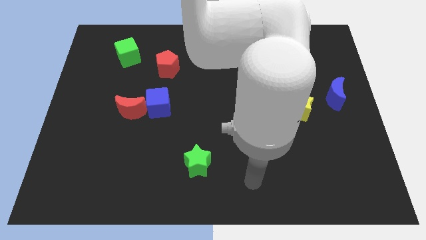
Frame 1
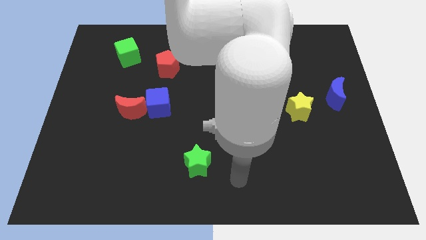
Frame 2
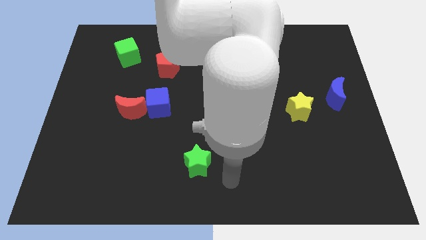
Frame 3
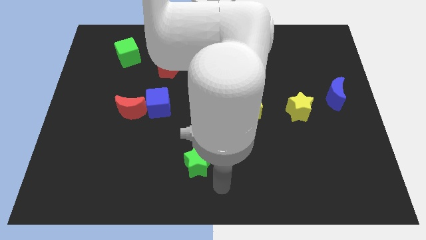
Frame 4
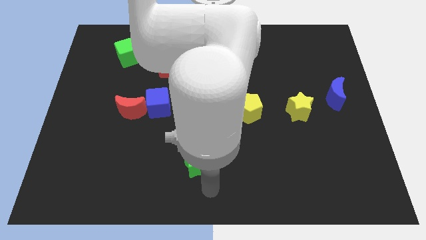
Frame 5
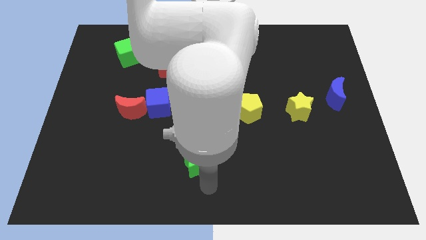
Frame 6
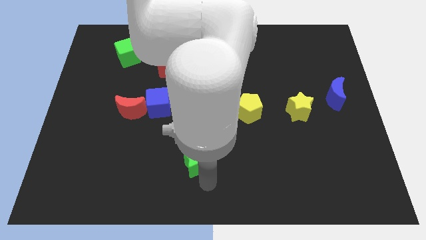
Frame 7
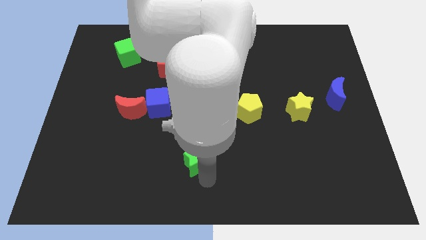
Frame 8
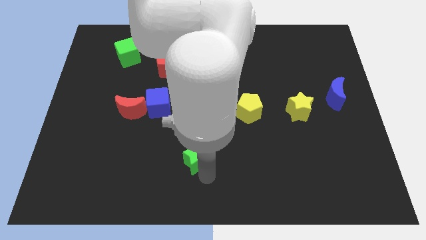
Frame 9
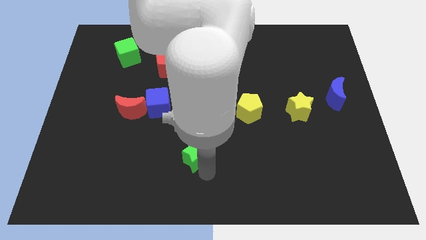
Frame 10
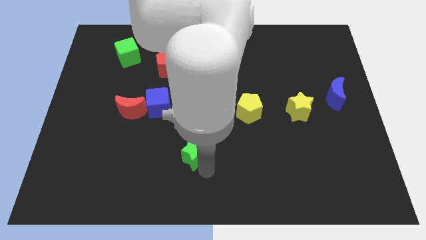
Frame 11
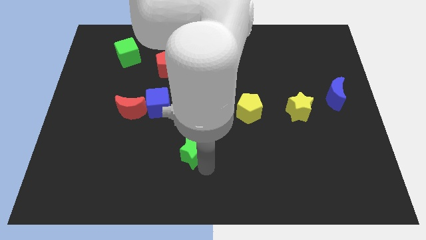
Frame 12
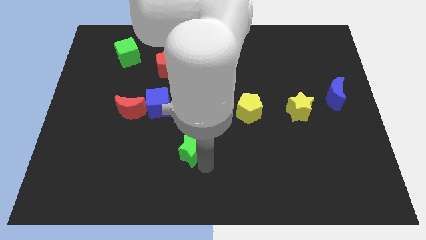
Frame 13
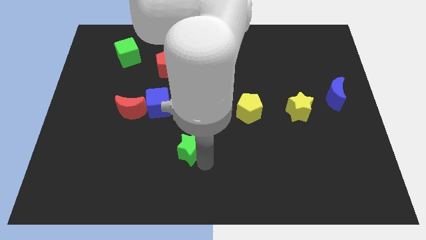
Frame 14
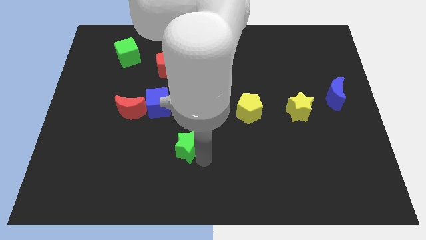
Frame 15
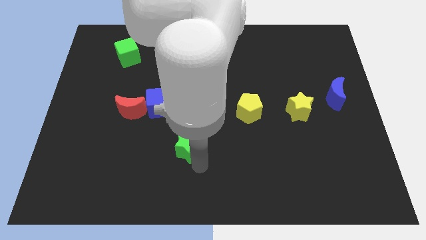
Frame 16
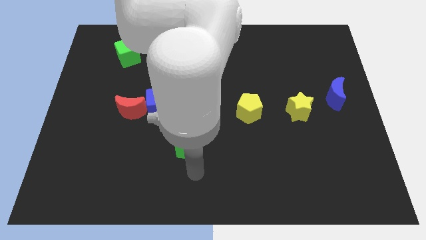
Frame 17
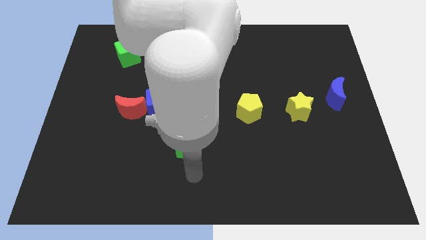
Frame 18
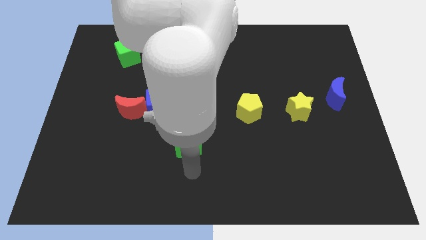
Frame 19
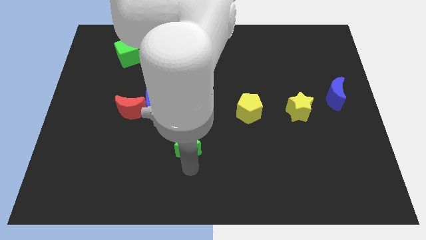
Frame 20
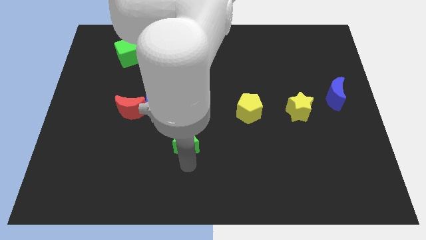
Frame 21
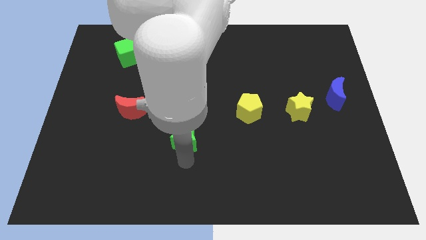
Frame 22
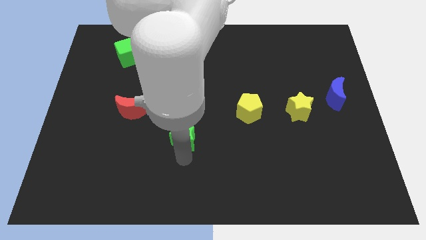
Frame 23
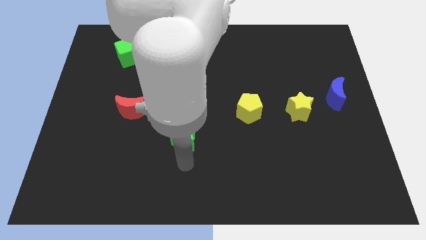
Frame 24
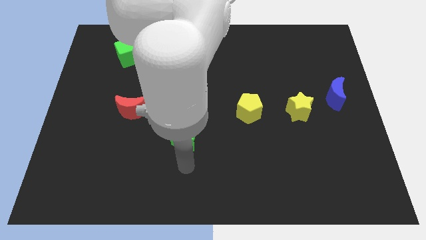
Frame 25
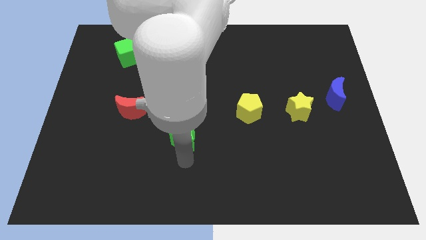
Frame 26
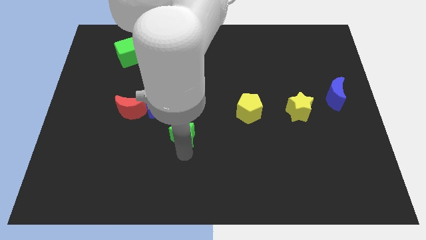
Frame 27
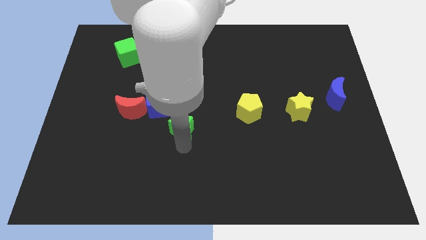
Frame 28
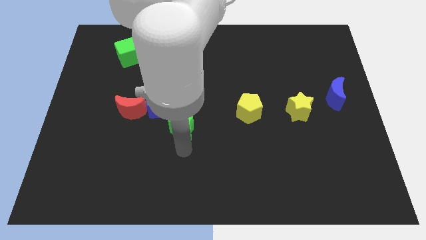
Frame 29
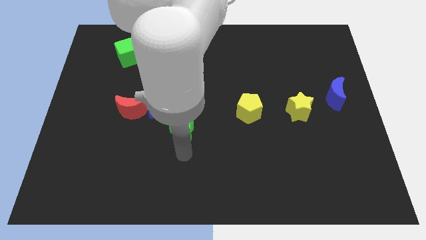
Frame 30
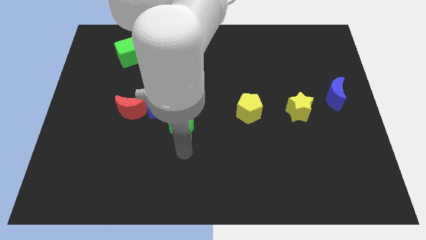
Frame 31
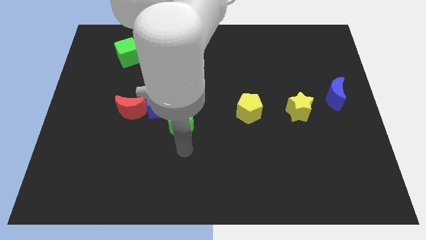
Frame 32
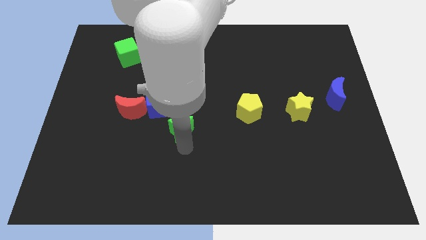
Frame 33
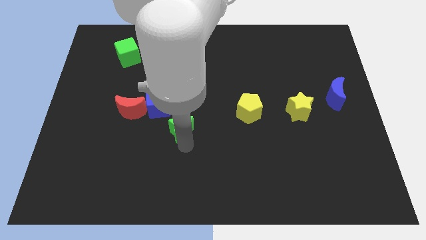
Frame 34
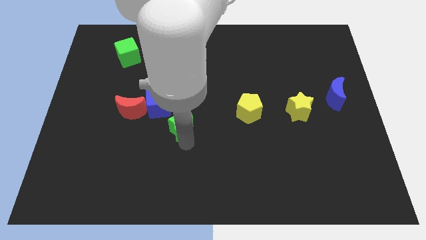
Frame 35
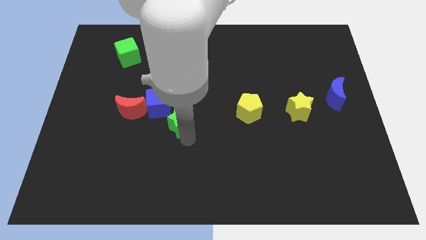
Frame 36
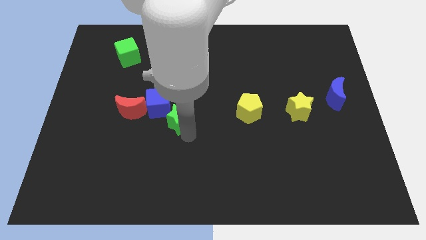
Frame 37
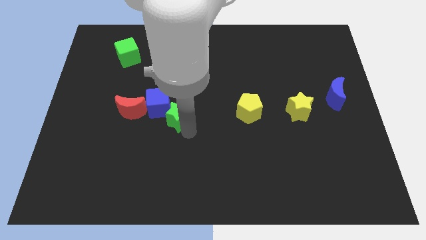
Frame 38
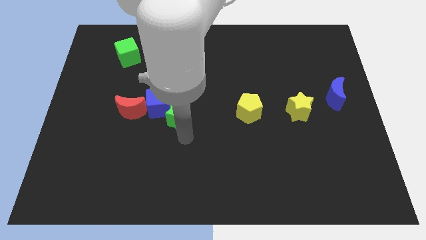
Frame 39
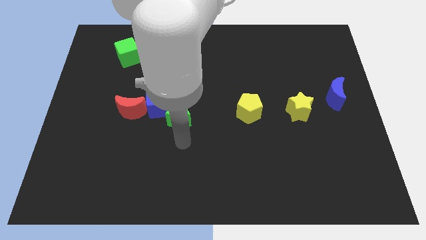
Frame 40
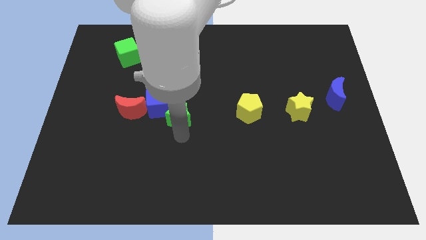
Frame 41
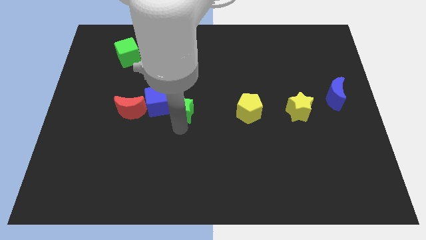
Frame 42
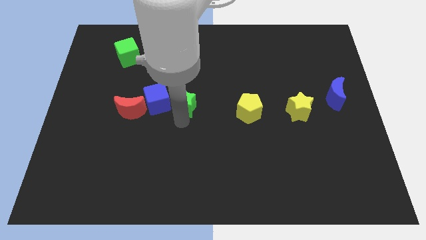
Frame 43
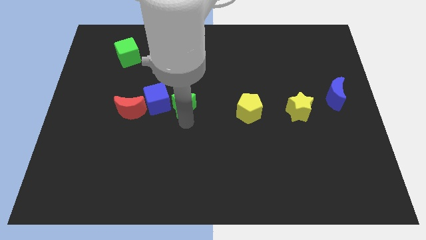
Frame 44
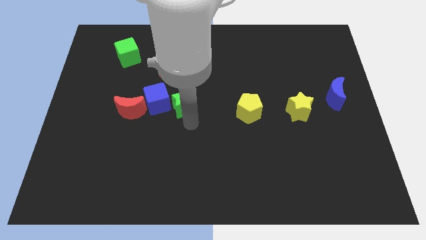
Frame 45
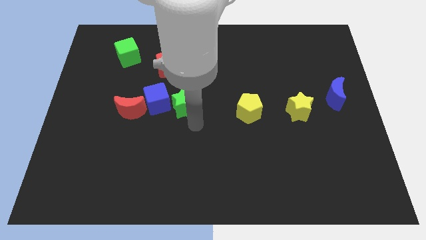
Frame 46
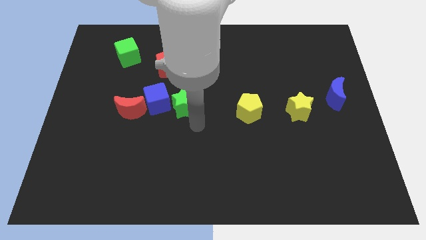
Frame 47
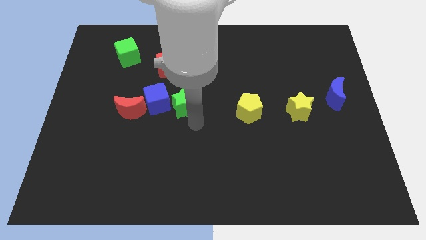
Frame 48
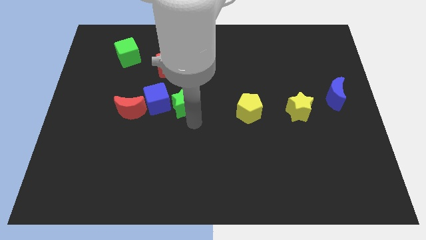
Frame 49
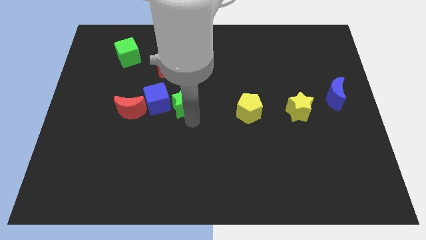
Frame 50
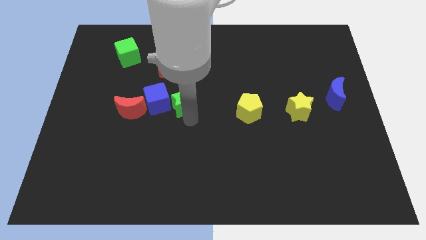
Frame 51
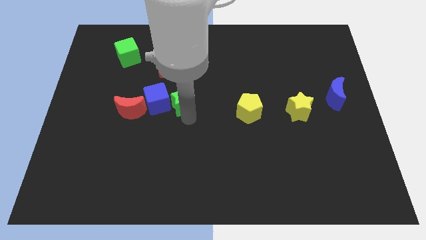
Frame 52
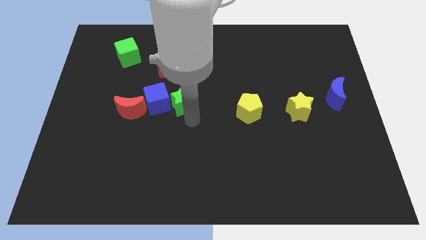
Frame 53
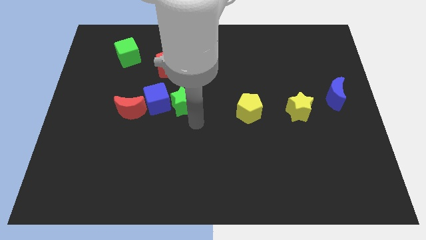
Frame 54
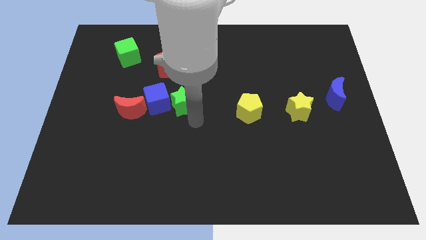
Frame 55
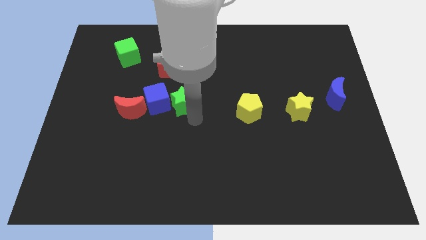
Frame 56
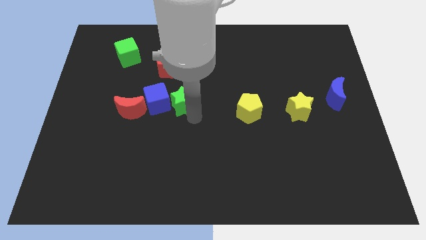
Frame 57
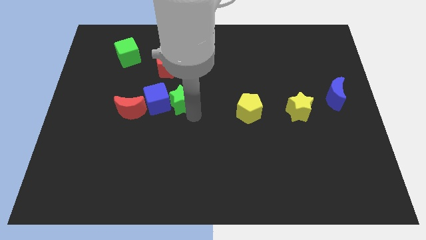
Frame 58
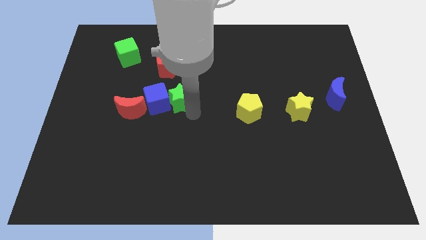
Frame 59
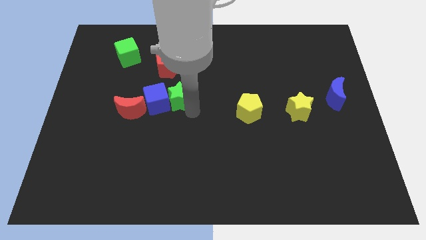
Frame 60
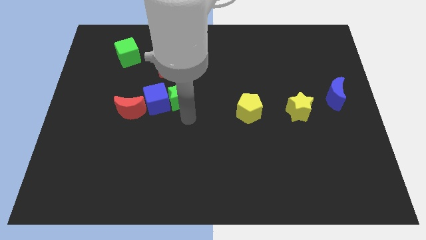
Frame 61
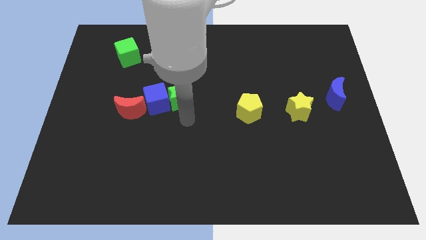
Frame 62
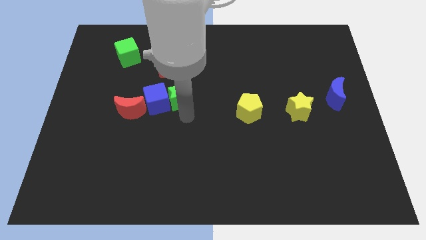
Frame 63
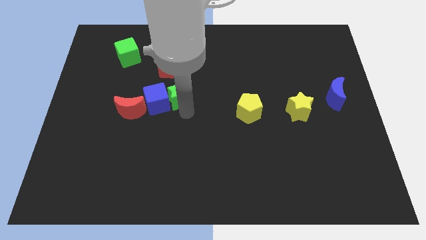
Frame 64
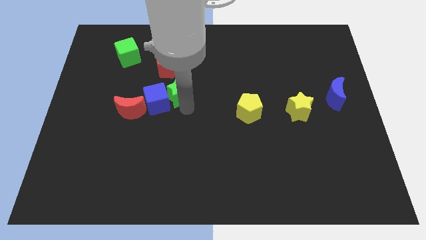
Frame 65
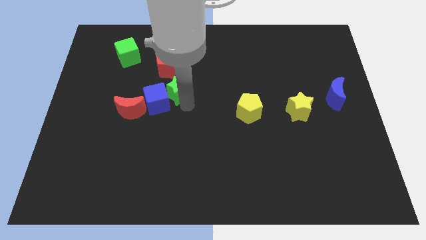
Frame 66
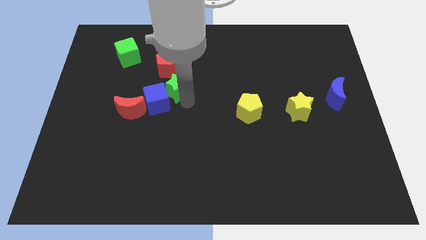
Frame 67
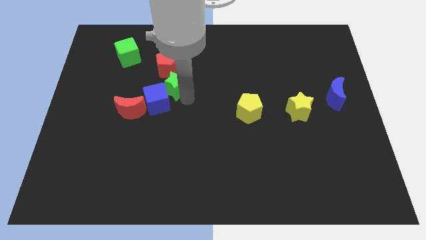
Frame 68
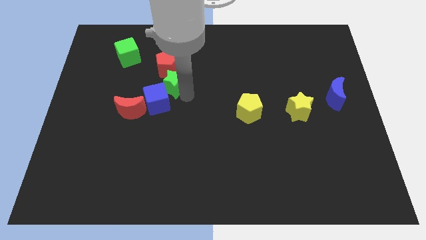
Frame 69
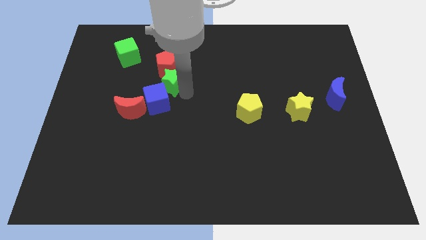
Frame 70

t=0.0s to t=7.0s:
put the green star to the red pentagon

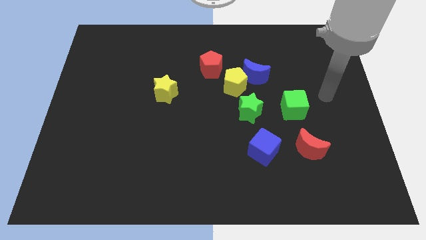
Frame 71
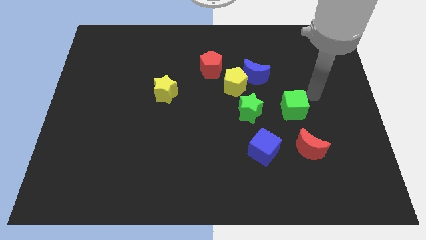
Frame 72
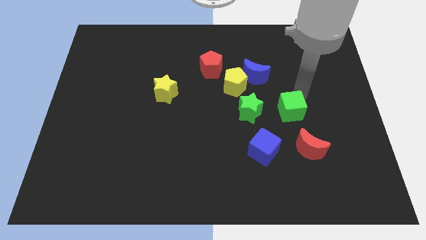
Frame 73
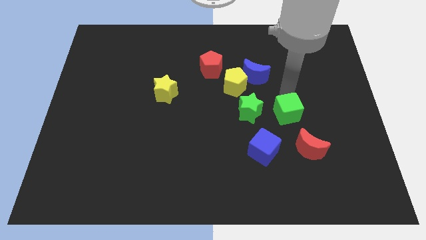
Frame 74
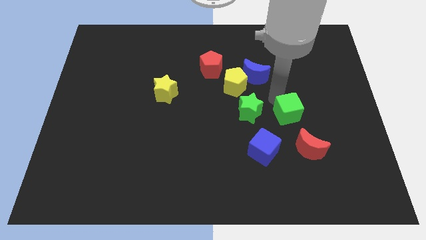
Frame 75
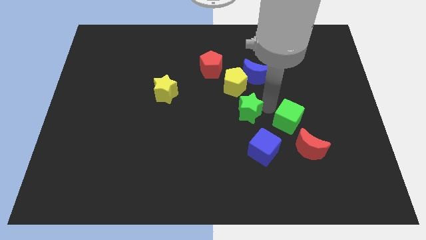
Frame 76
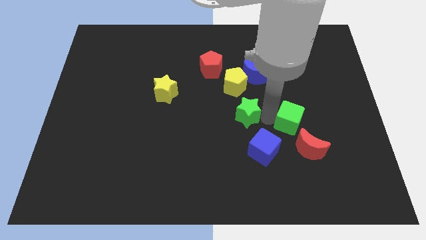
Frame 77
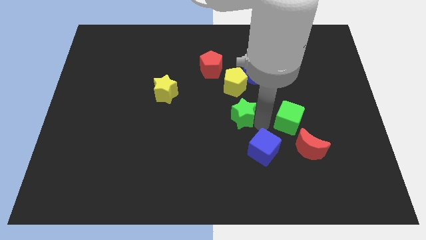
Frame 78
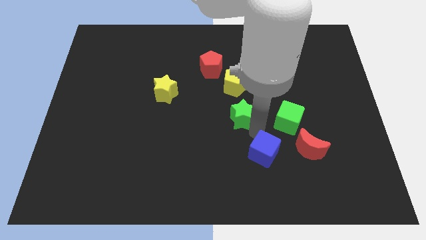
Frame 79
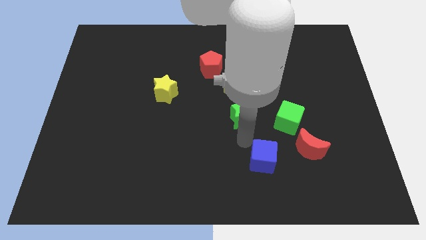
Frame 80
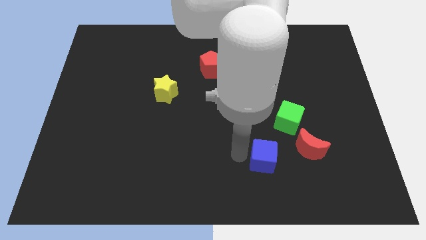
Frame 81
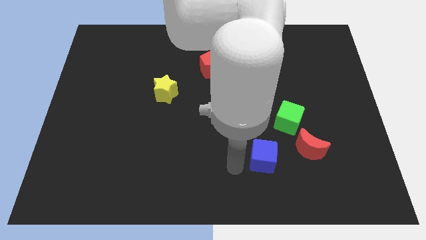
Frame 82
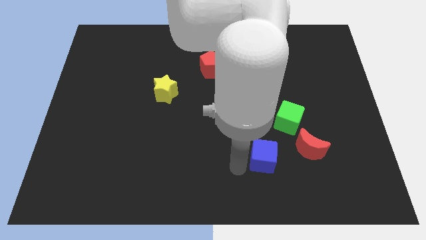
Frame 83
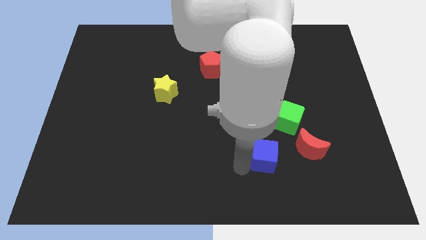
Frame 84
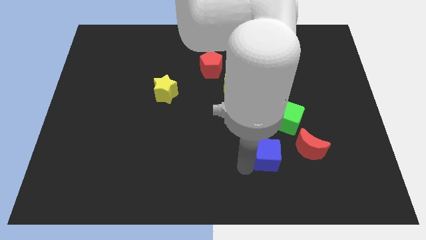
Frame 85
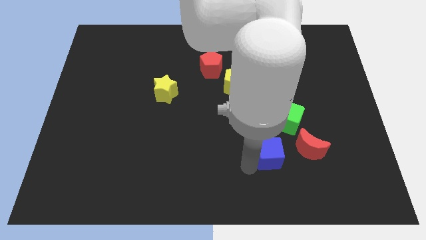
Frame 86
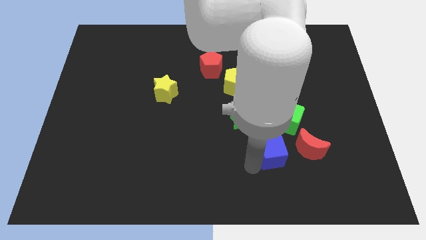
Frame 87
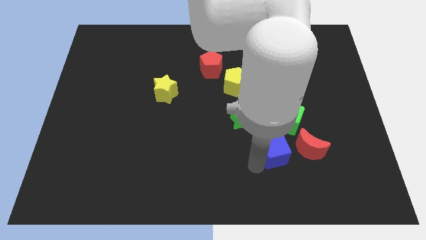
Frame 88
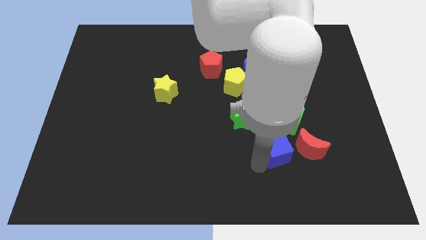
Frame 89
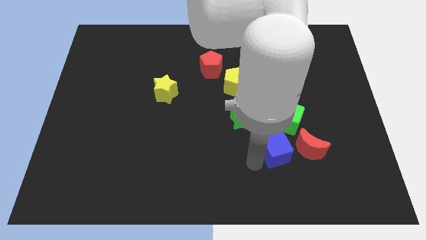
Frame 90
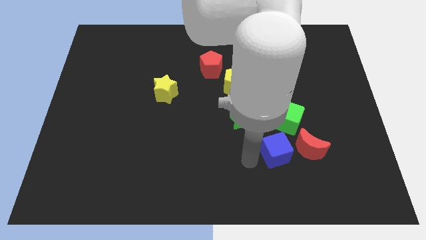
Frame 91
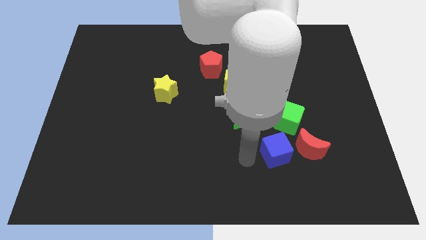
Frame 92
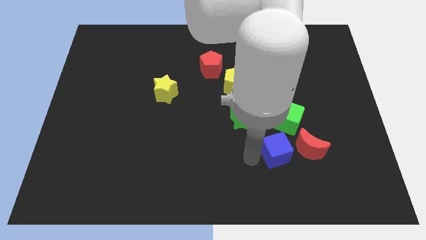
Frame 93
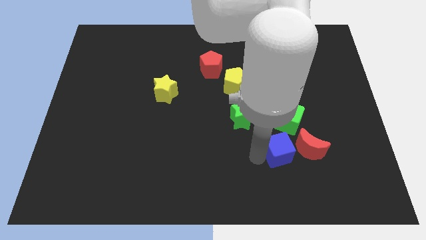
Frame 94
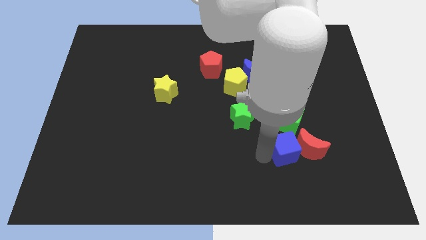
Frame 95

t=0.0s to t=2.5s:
move the blue cube to the red moon
